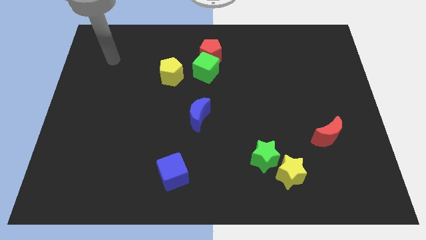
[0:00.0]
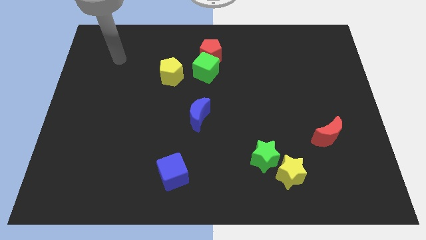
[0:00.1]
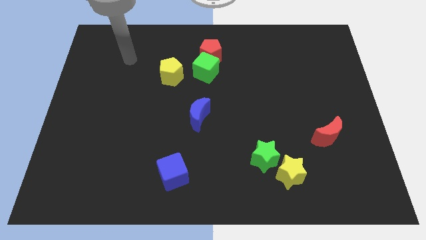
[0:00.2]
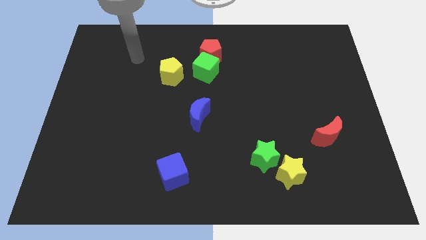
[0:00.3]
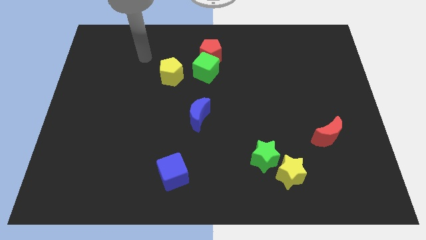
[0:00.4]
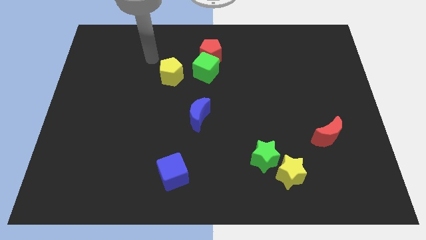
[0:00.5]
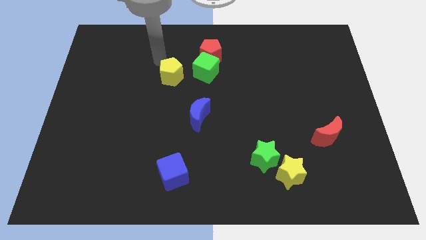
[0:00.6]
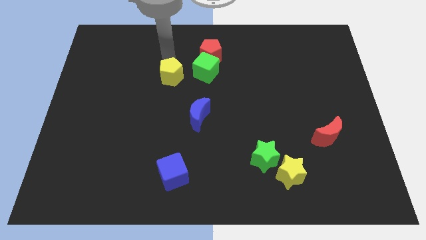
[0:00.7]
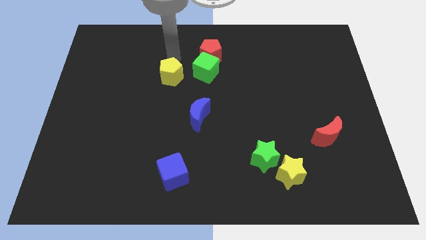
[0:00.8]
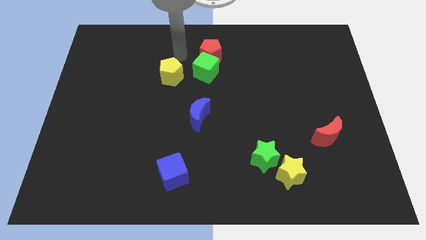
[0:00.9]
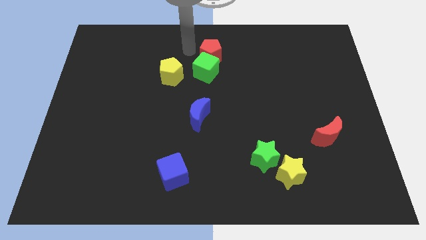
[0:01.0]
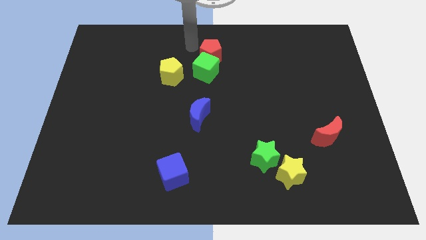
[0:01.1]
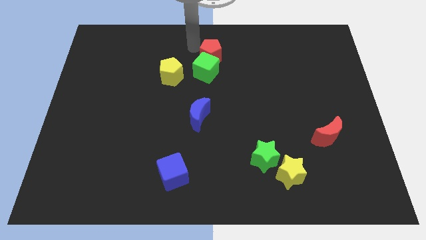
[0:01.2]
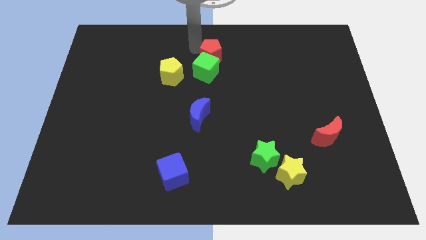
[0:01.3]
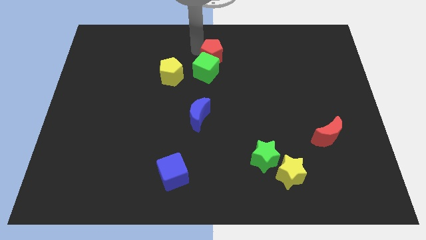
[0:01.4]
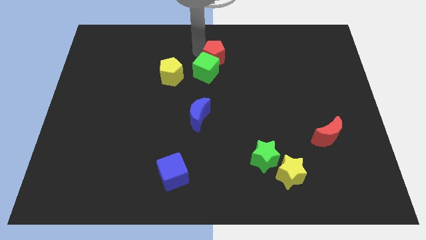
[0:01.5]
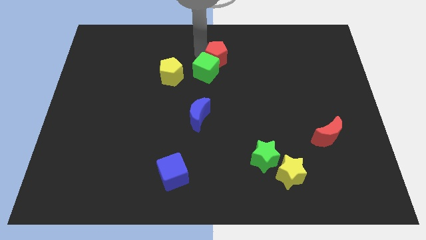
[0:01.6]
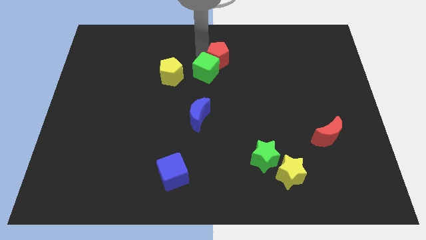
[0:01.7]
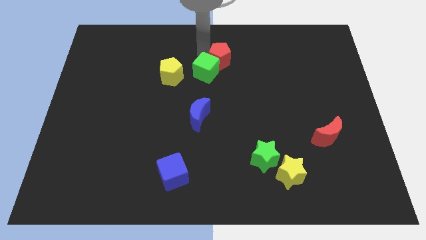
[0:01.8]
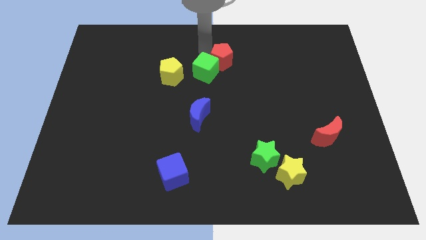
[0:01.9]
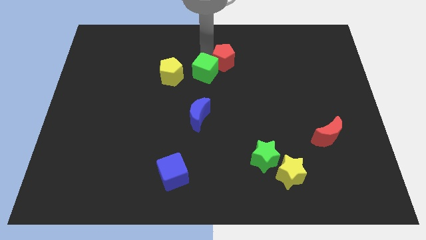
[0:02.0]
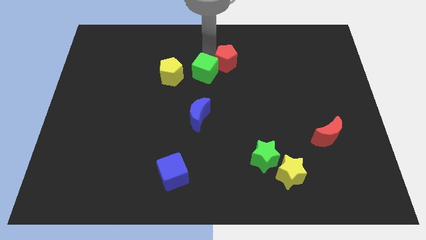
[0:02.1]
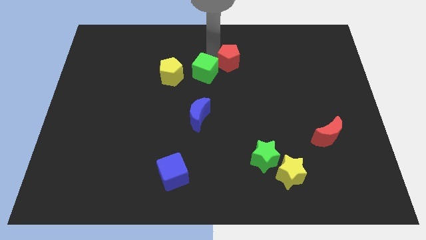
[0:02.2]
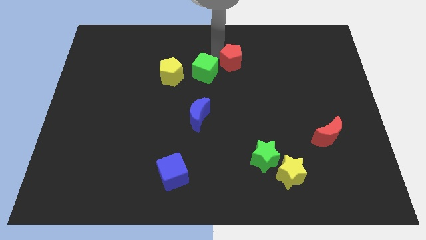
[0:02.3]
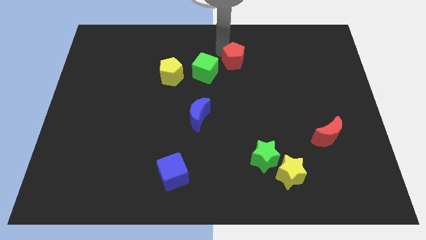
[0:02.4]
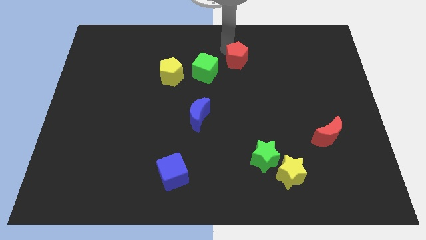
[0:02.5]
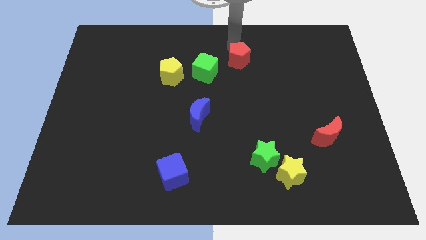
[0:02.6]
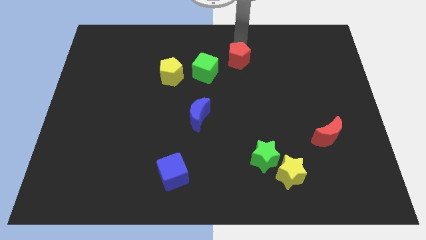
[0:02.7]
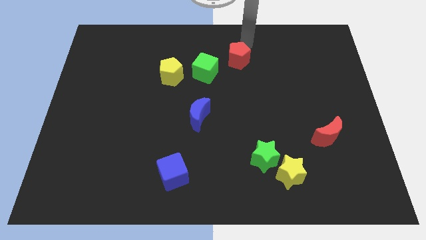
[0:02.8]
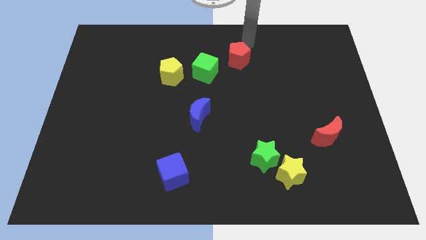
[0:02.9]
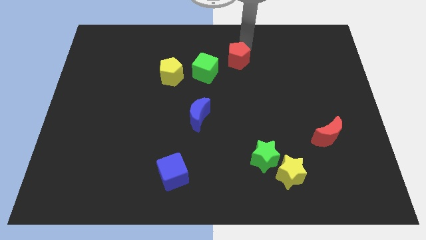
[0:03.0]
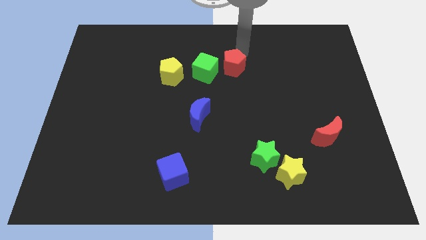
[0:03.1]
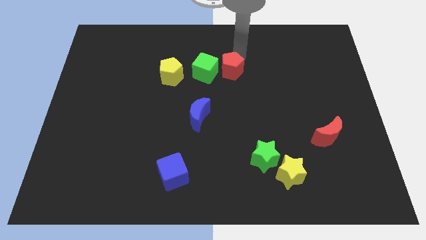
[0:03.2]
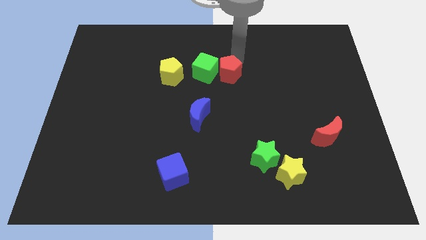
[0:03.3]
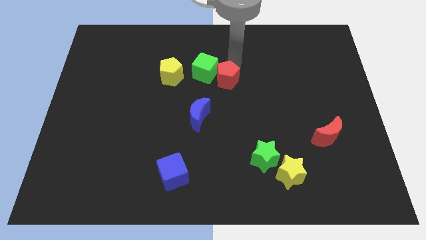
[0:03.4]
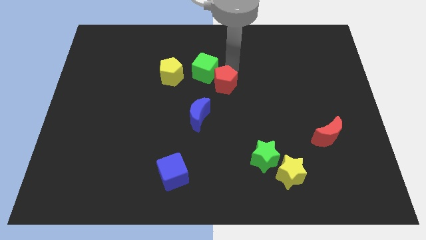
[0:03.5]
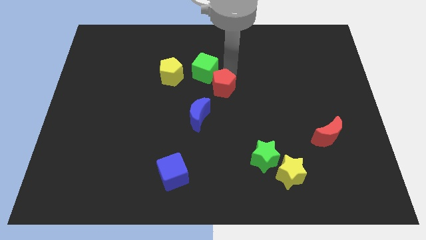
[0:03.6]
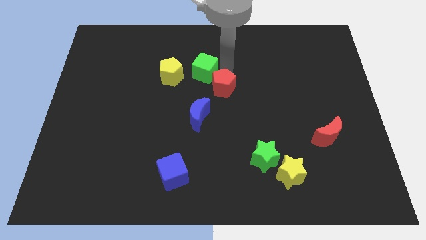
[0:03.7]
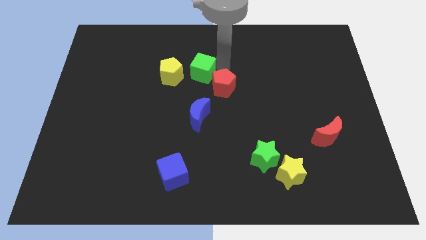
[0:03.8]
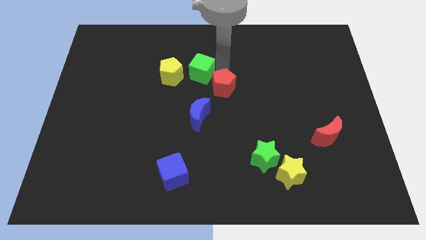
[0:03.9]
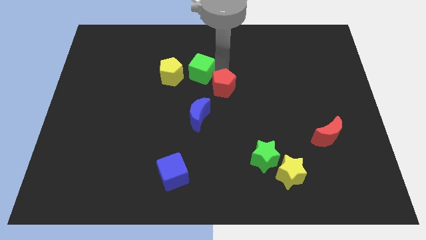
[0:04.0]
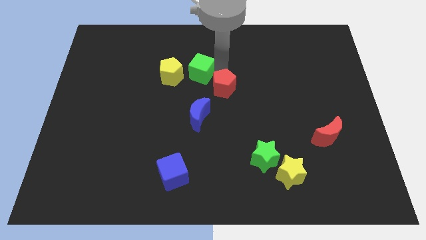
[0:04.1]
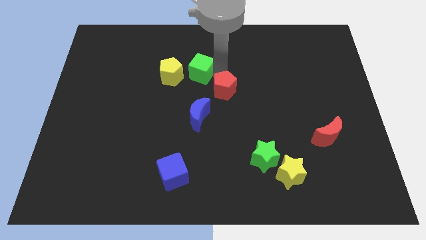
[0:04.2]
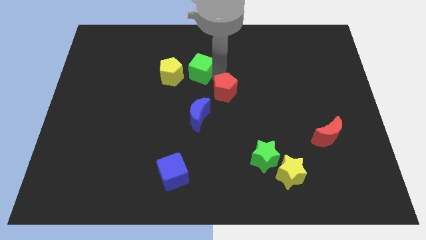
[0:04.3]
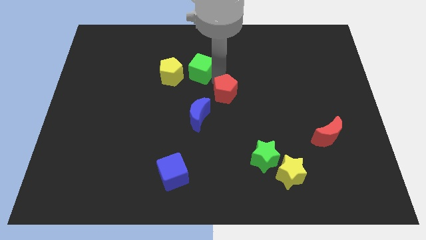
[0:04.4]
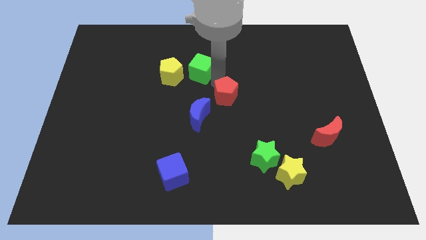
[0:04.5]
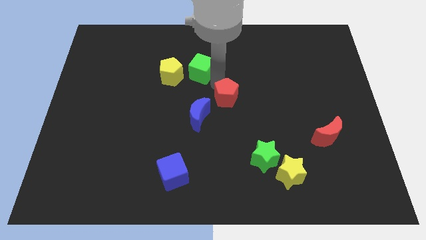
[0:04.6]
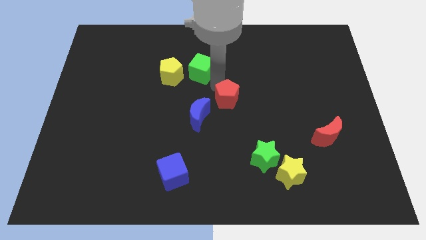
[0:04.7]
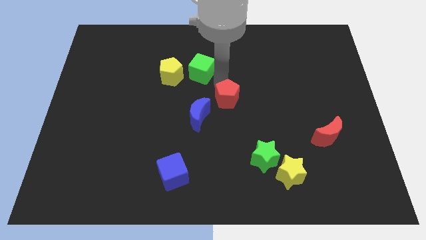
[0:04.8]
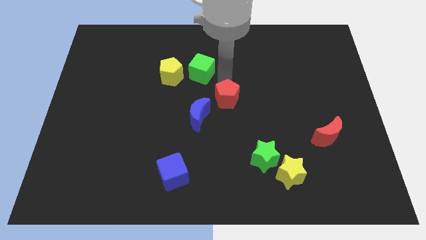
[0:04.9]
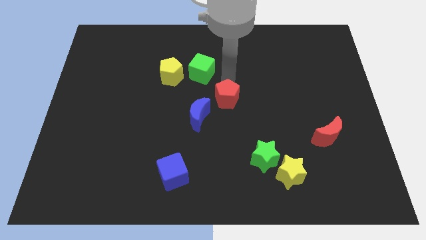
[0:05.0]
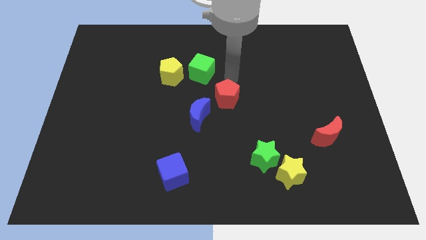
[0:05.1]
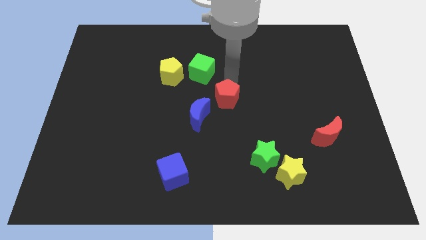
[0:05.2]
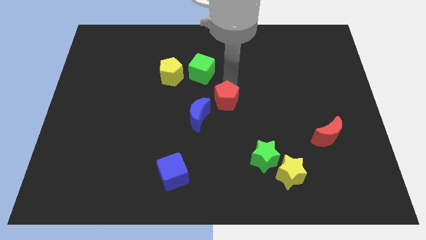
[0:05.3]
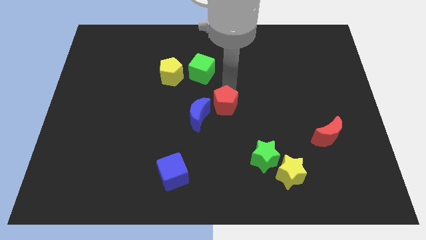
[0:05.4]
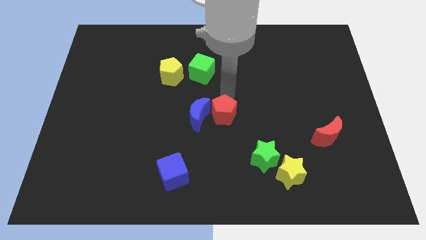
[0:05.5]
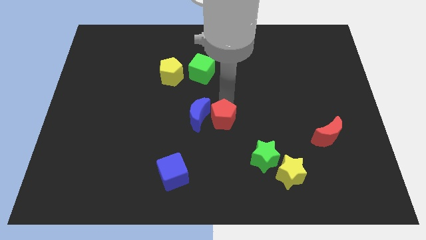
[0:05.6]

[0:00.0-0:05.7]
push the red pentagon down

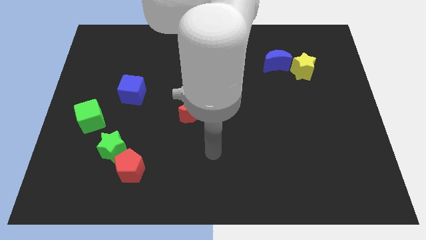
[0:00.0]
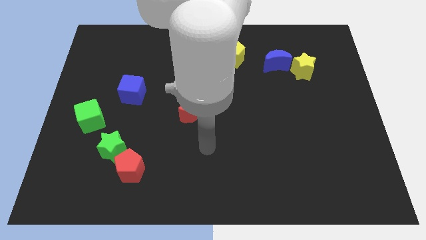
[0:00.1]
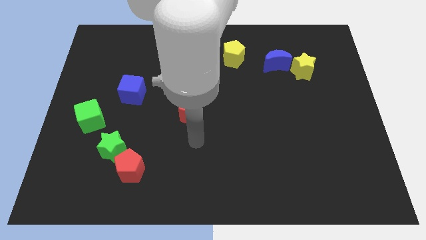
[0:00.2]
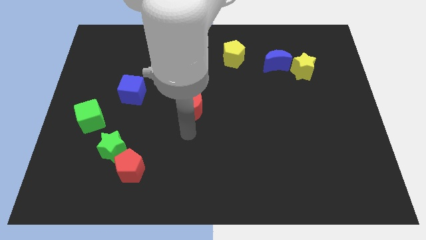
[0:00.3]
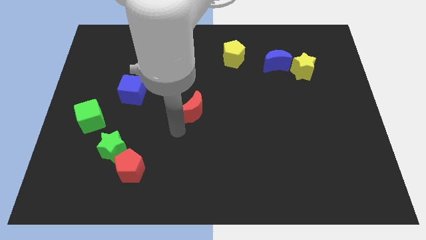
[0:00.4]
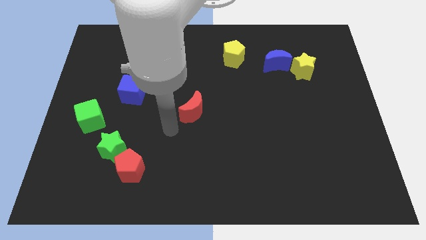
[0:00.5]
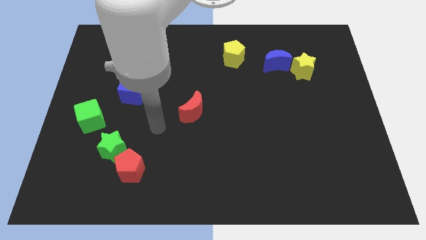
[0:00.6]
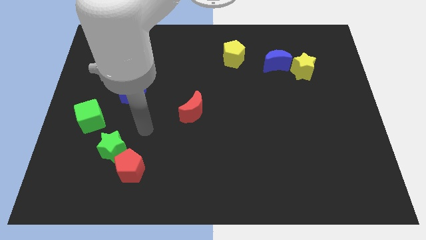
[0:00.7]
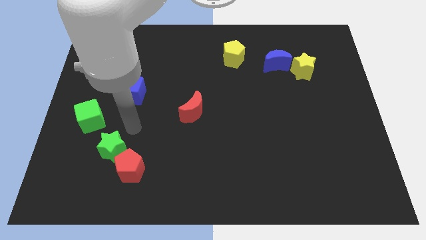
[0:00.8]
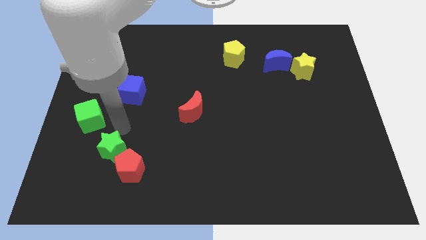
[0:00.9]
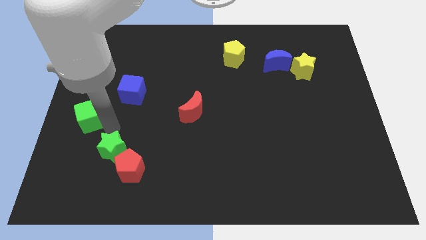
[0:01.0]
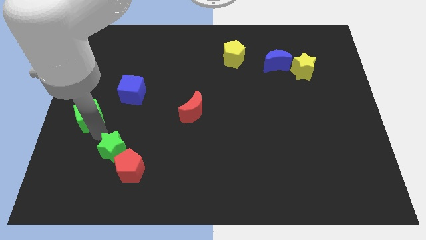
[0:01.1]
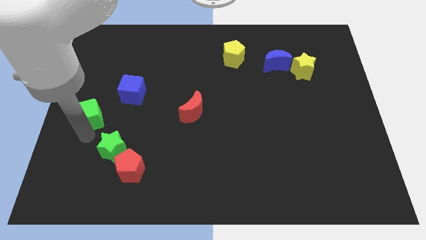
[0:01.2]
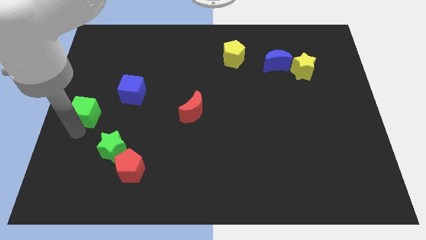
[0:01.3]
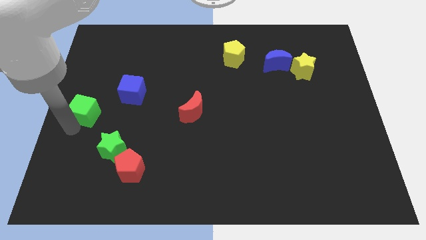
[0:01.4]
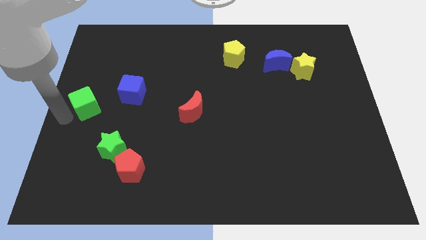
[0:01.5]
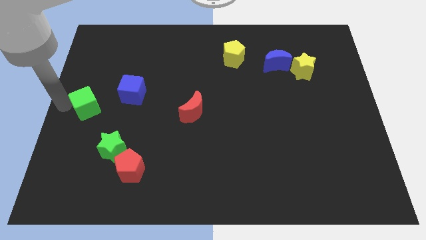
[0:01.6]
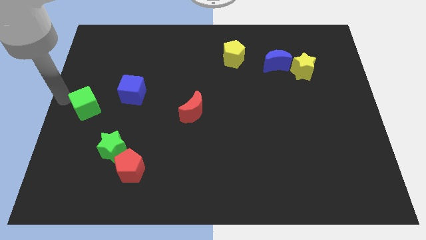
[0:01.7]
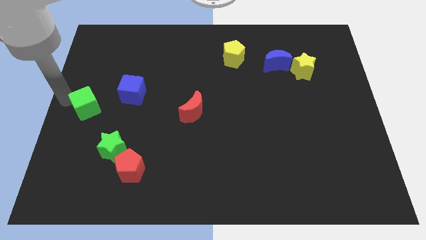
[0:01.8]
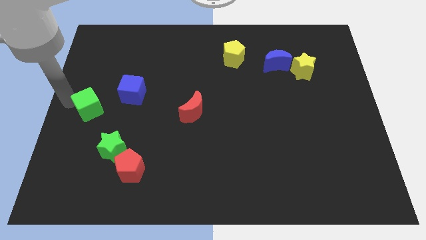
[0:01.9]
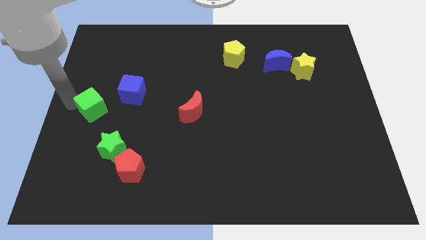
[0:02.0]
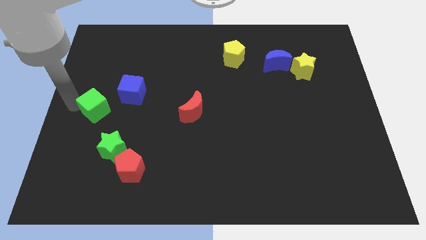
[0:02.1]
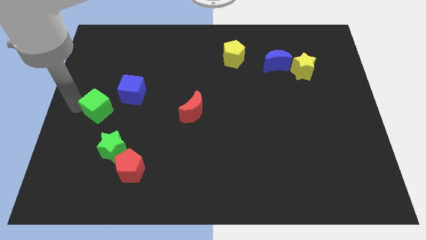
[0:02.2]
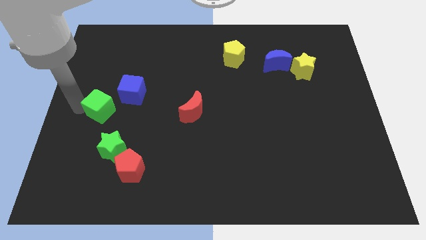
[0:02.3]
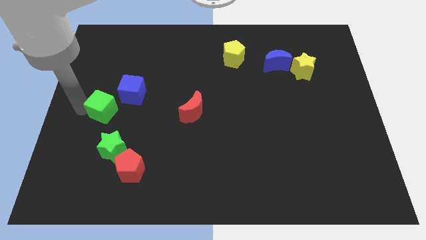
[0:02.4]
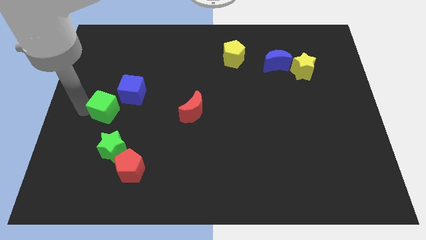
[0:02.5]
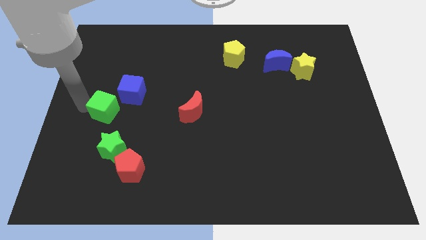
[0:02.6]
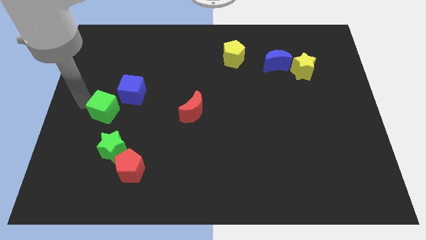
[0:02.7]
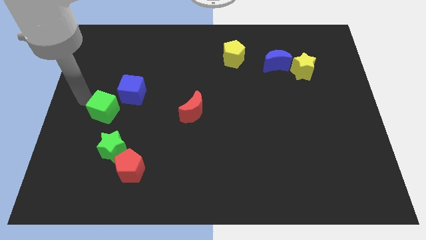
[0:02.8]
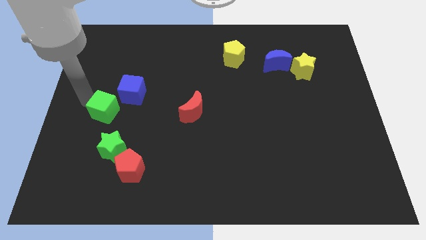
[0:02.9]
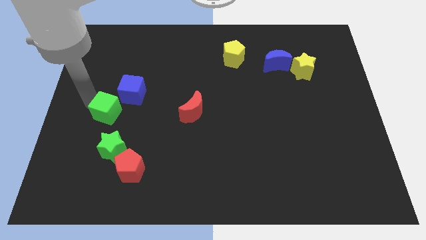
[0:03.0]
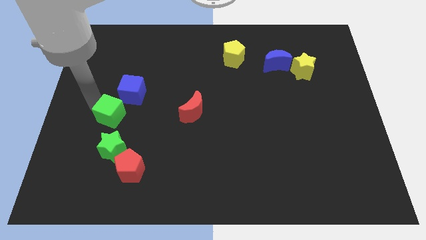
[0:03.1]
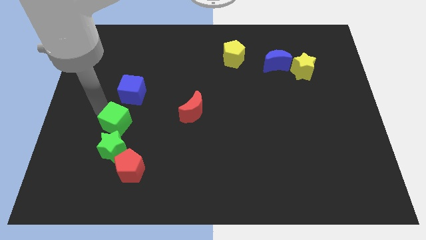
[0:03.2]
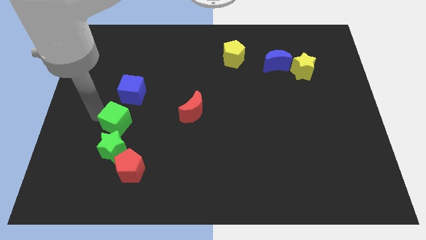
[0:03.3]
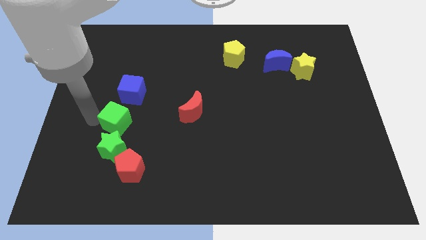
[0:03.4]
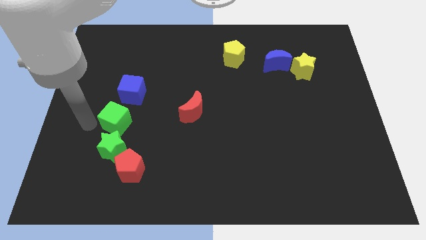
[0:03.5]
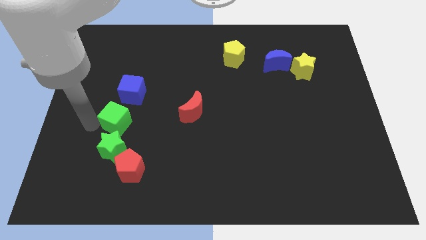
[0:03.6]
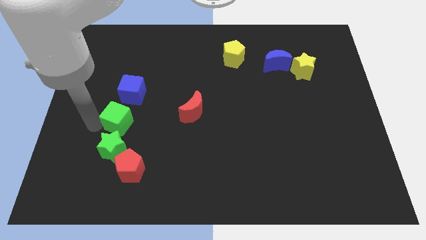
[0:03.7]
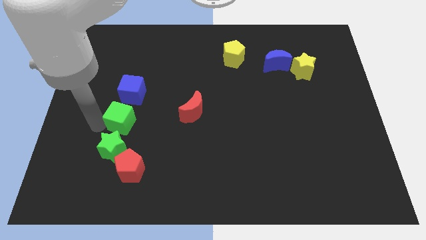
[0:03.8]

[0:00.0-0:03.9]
push the green cube a little bit right
